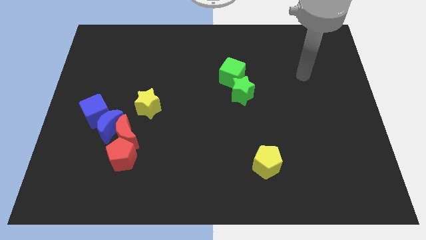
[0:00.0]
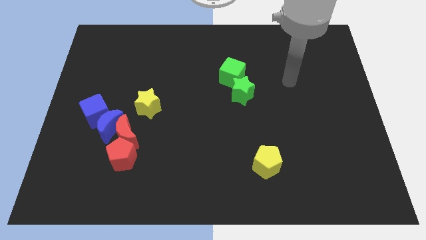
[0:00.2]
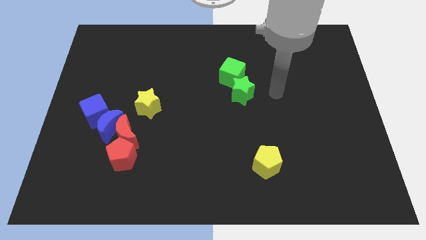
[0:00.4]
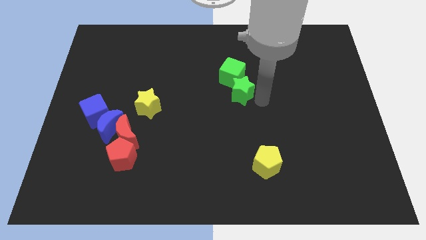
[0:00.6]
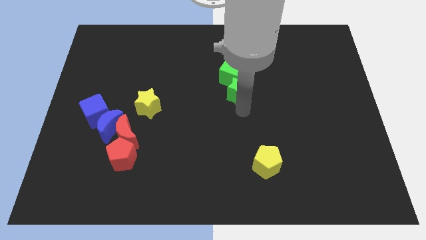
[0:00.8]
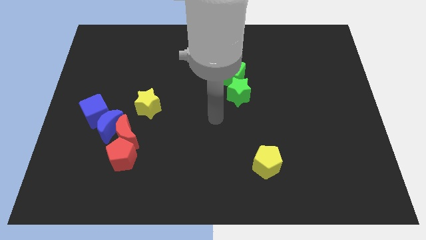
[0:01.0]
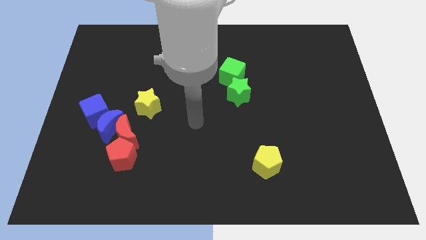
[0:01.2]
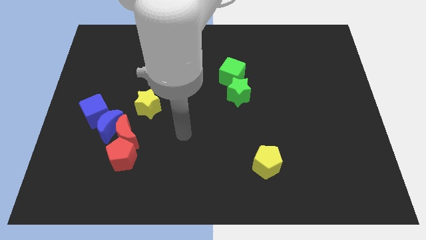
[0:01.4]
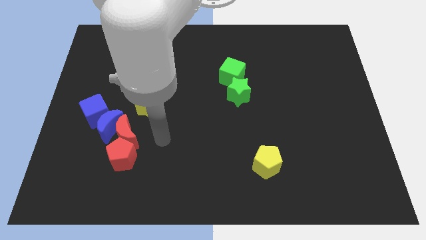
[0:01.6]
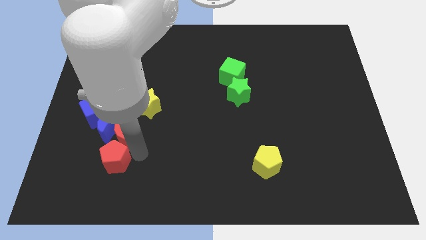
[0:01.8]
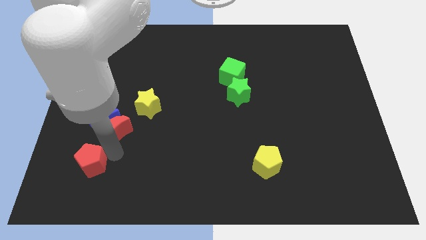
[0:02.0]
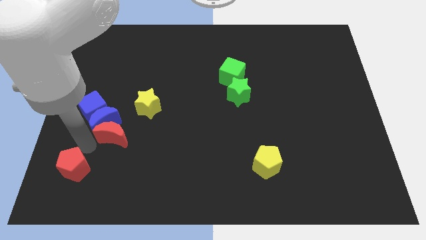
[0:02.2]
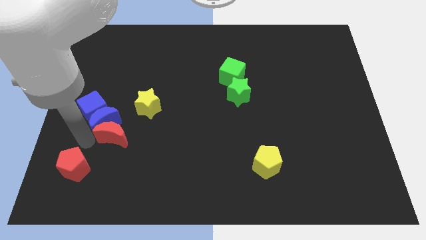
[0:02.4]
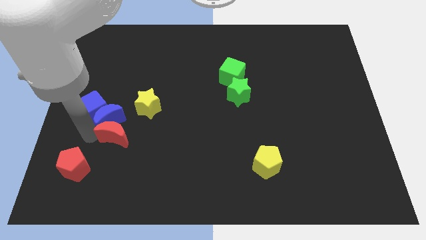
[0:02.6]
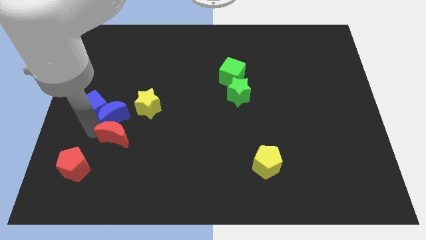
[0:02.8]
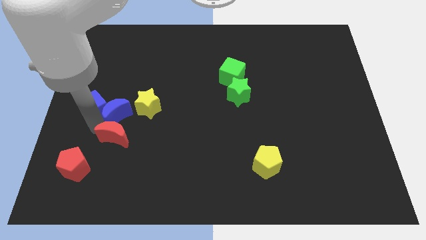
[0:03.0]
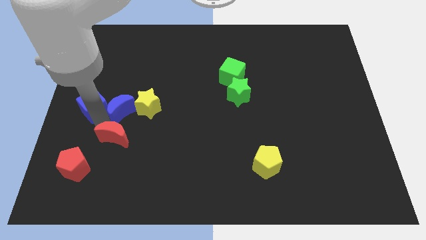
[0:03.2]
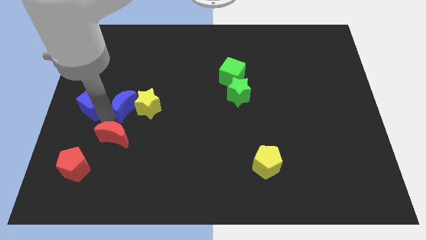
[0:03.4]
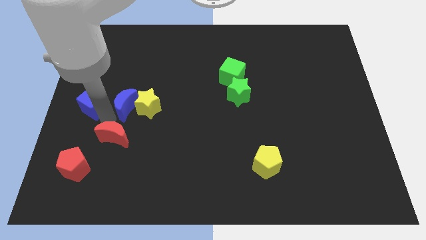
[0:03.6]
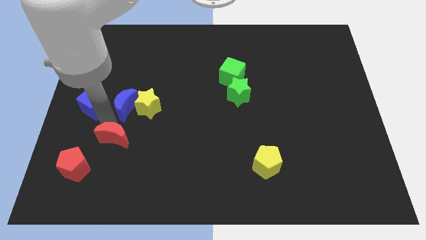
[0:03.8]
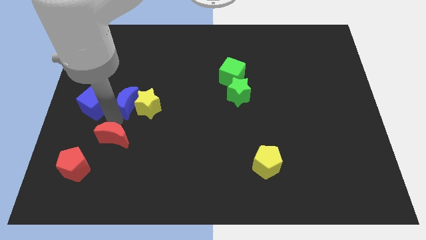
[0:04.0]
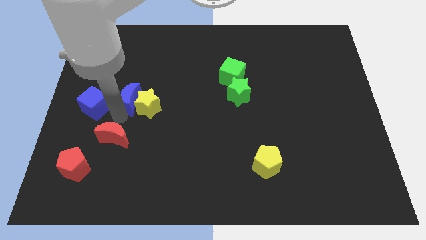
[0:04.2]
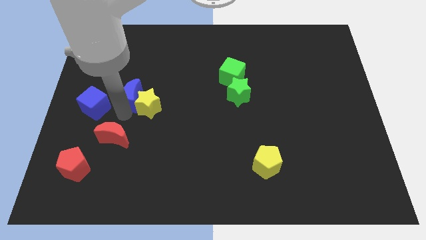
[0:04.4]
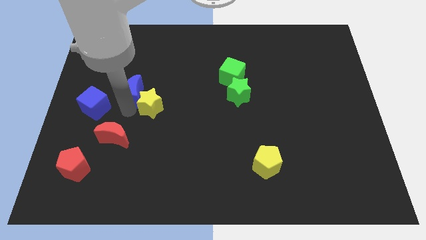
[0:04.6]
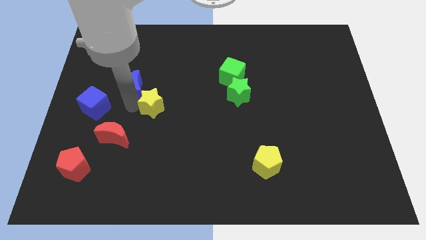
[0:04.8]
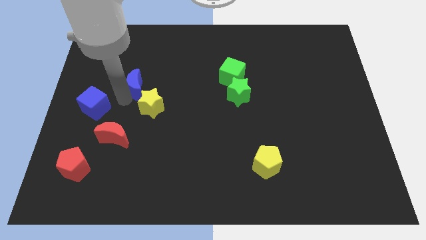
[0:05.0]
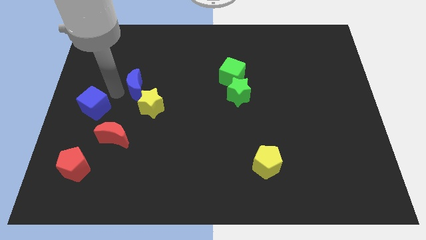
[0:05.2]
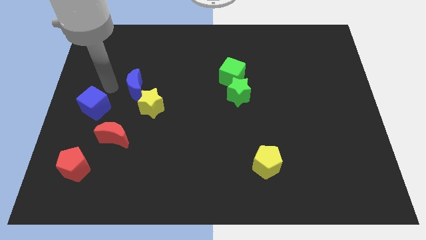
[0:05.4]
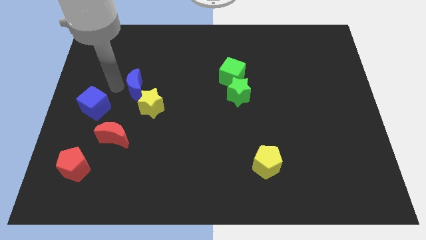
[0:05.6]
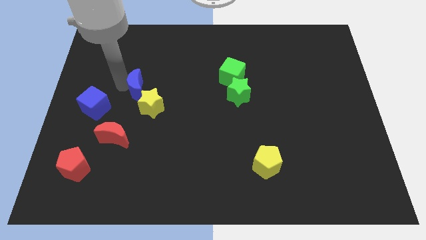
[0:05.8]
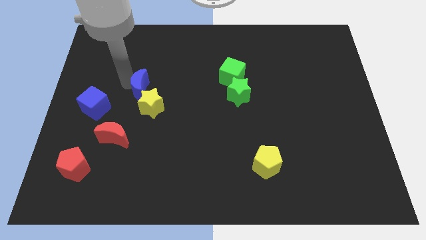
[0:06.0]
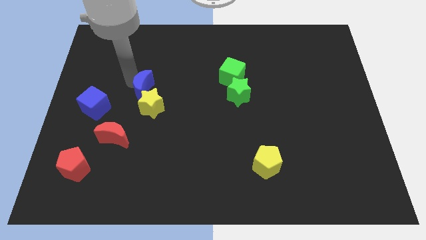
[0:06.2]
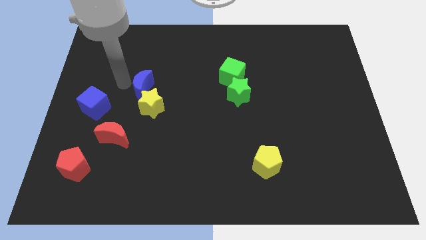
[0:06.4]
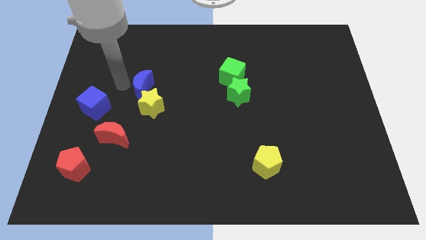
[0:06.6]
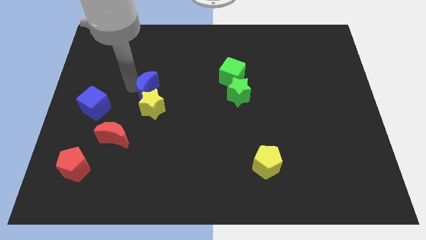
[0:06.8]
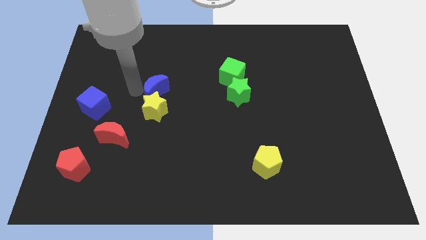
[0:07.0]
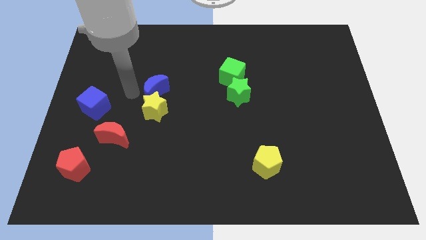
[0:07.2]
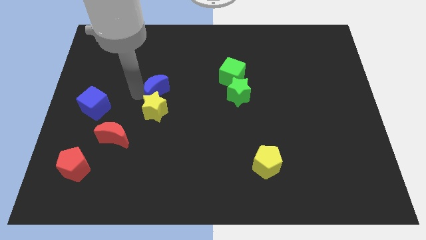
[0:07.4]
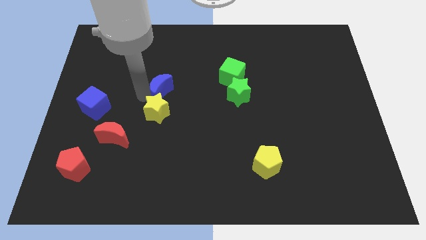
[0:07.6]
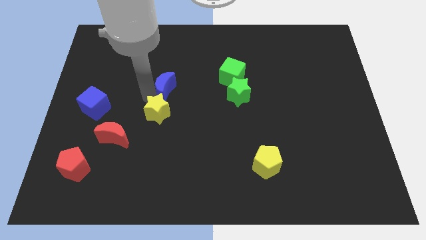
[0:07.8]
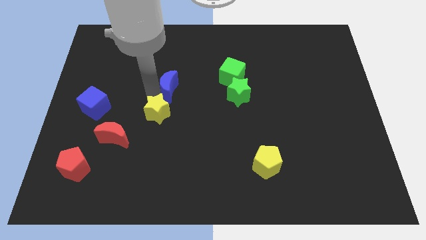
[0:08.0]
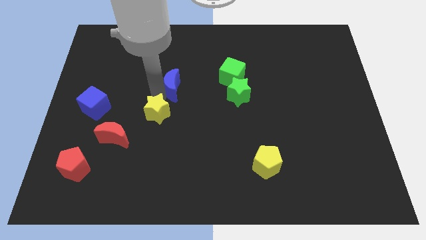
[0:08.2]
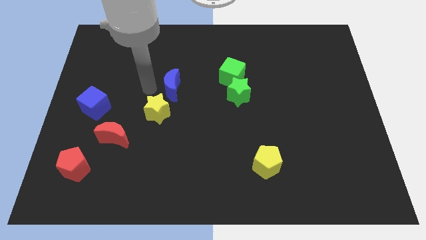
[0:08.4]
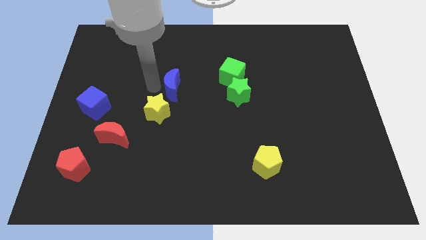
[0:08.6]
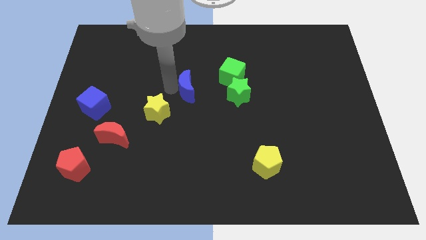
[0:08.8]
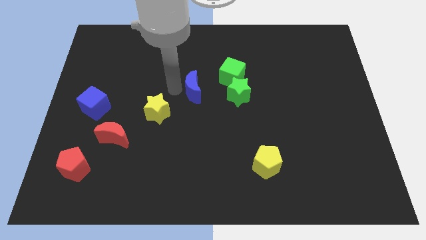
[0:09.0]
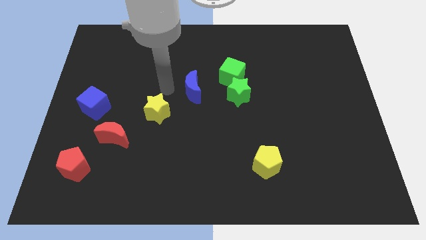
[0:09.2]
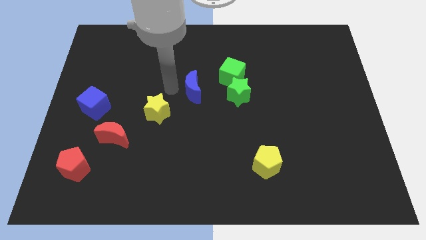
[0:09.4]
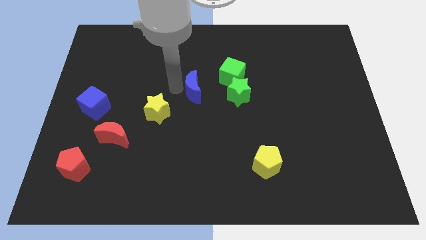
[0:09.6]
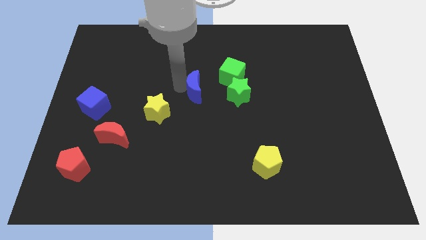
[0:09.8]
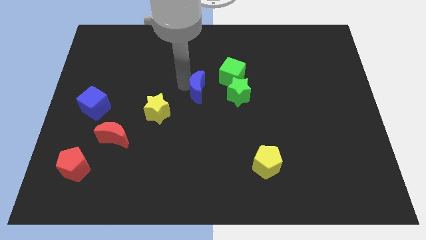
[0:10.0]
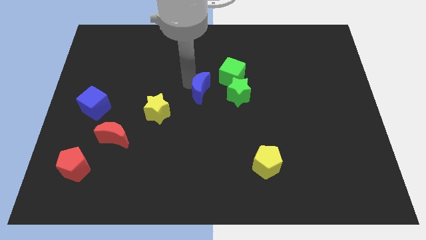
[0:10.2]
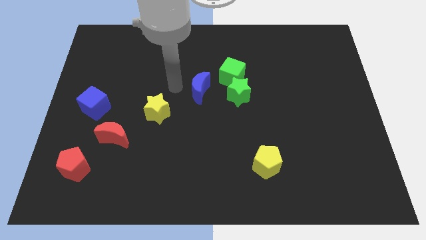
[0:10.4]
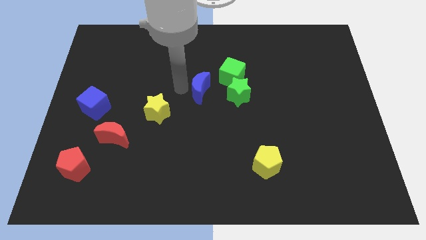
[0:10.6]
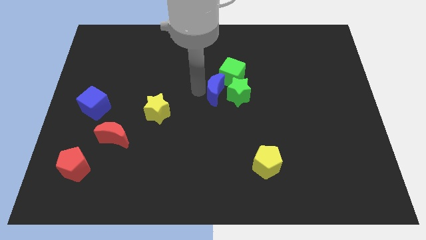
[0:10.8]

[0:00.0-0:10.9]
slide the blue moon close to the green star

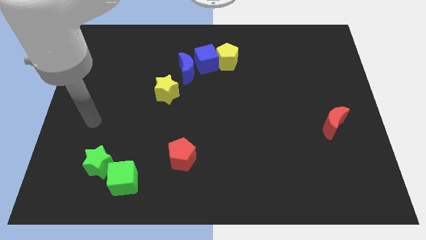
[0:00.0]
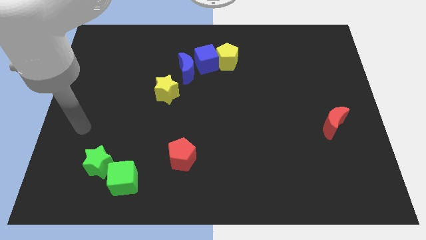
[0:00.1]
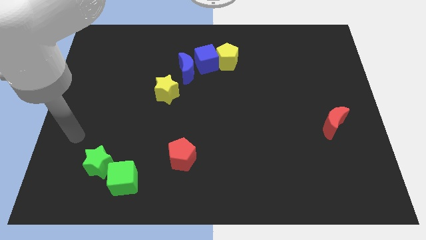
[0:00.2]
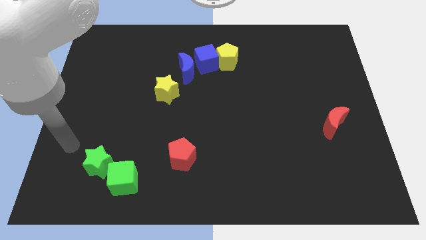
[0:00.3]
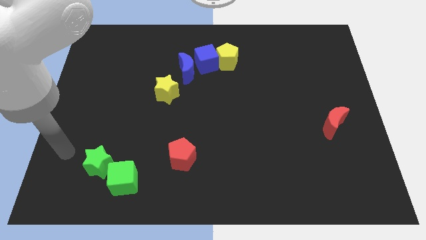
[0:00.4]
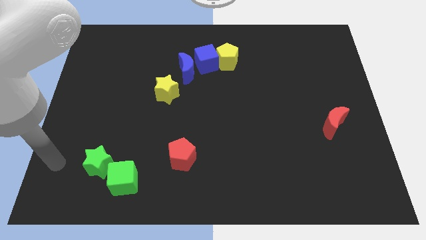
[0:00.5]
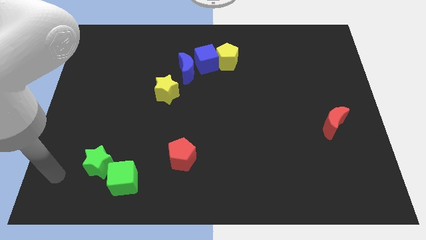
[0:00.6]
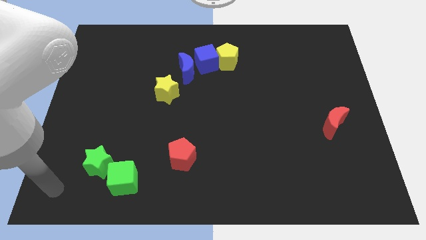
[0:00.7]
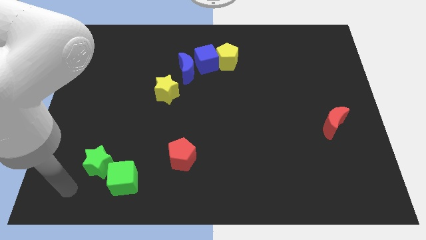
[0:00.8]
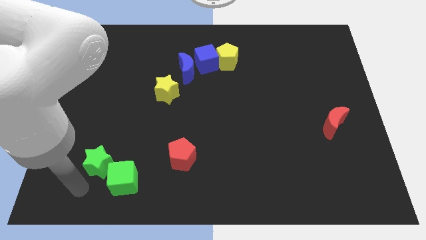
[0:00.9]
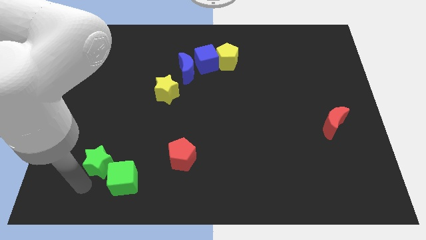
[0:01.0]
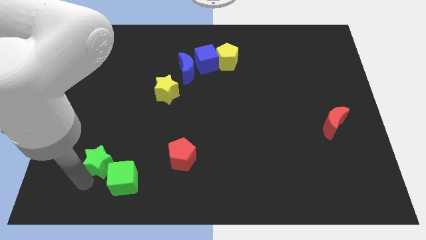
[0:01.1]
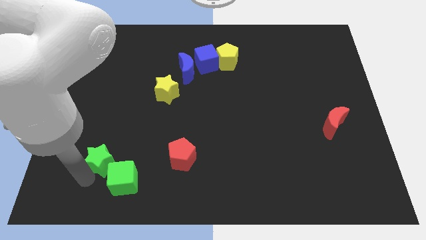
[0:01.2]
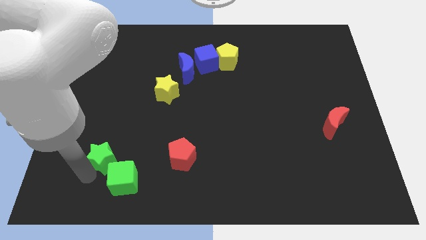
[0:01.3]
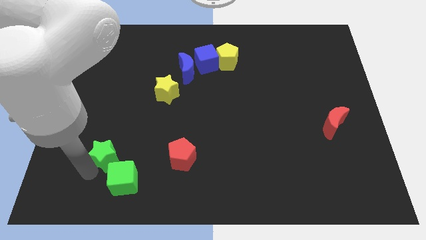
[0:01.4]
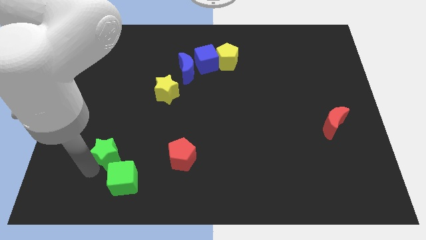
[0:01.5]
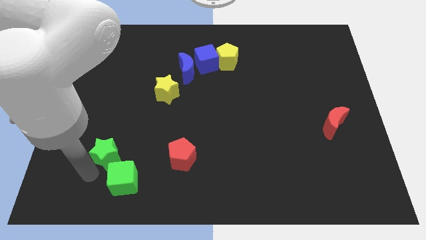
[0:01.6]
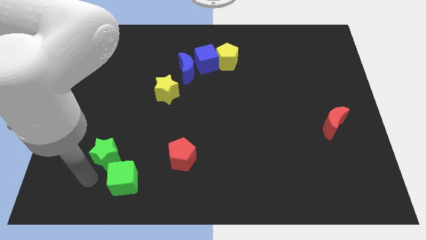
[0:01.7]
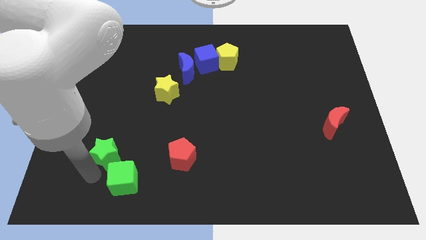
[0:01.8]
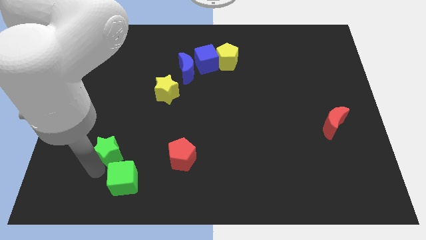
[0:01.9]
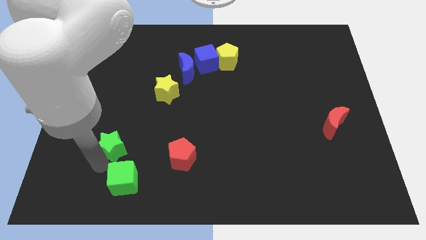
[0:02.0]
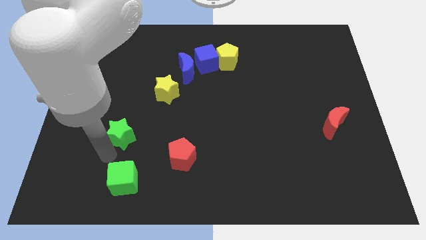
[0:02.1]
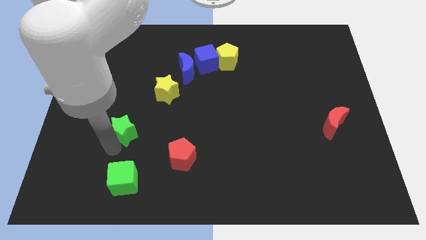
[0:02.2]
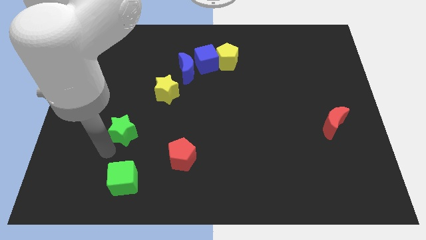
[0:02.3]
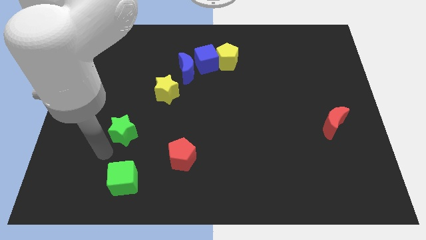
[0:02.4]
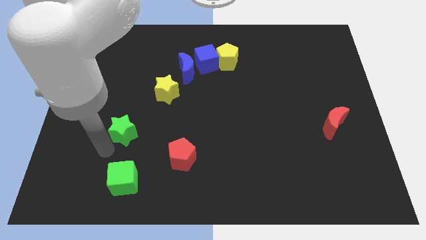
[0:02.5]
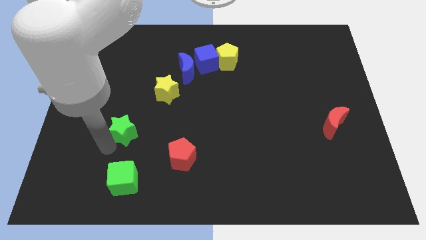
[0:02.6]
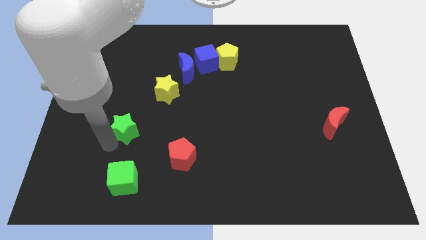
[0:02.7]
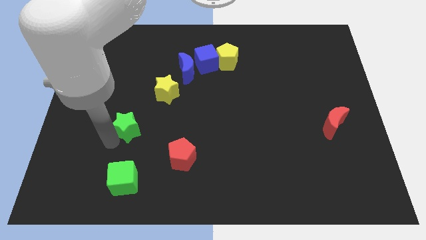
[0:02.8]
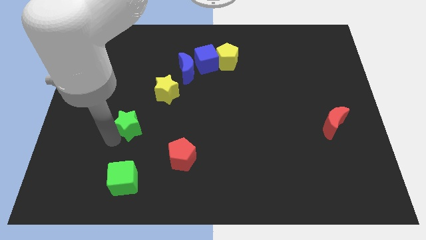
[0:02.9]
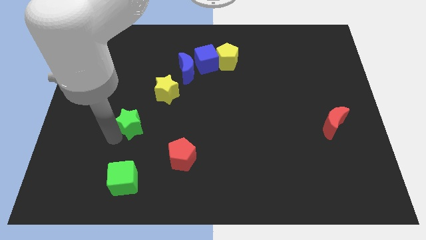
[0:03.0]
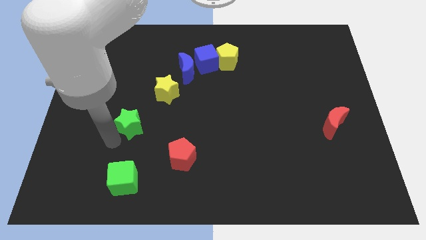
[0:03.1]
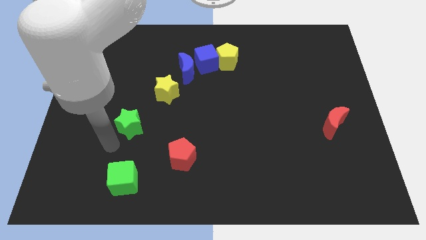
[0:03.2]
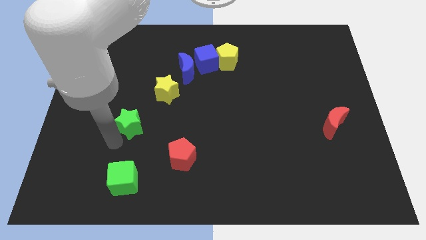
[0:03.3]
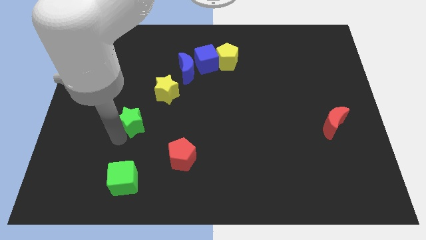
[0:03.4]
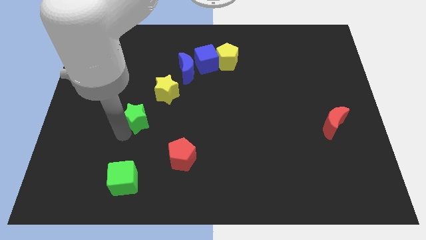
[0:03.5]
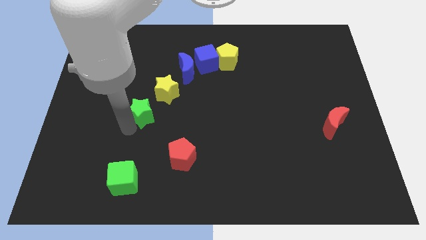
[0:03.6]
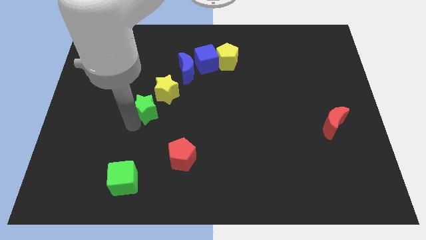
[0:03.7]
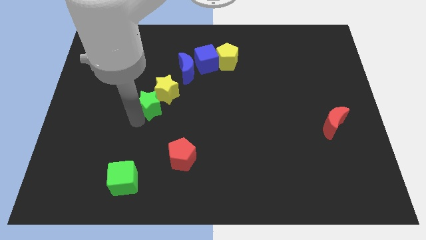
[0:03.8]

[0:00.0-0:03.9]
move the green star towards the yellow star
